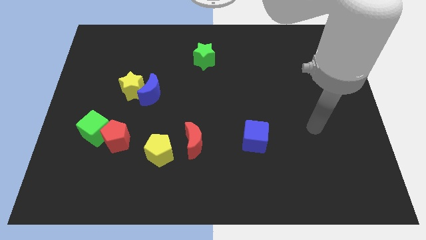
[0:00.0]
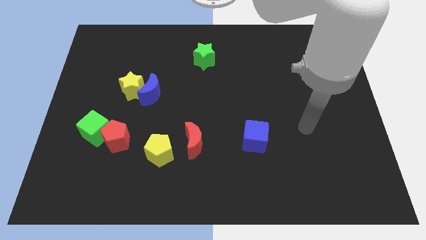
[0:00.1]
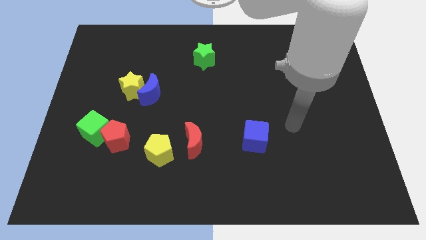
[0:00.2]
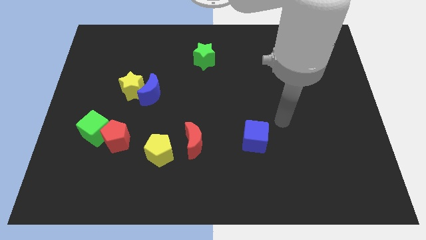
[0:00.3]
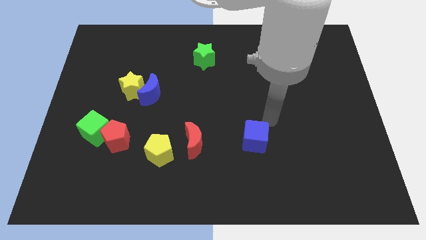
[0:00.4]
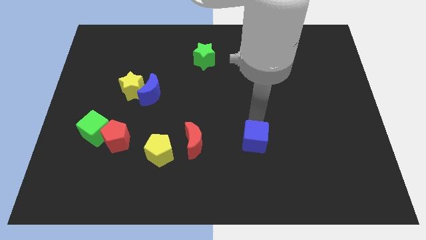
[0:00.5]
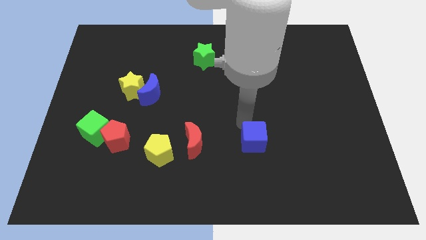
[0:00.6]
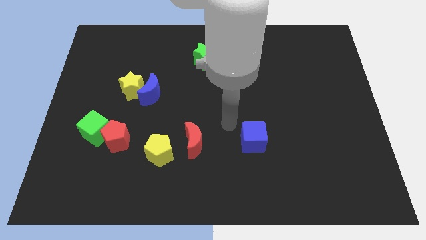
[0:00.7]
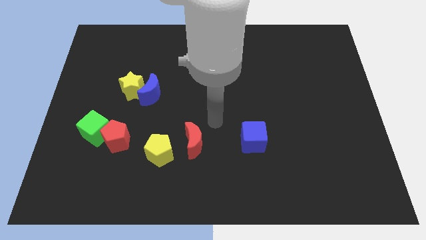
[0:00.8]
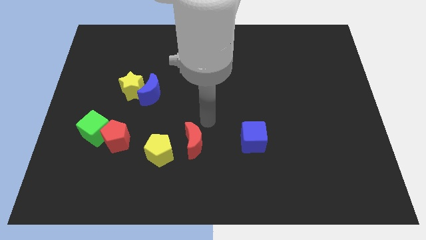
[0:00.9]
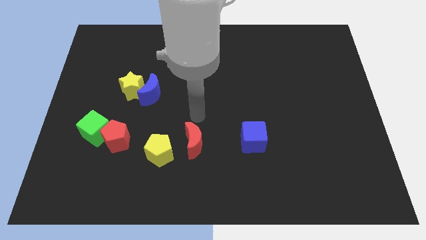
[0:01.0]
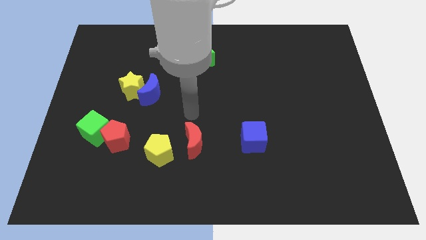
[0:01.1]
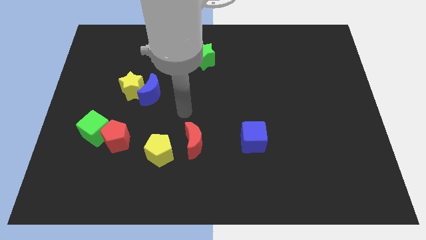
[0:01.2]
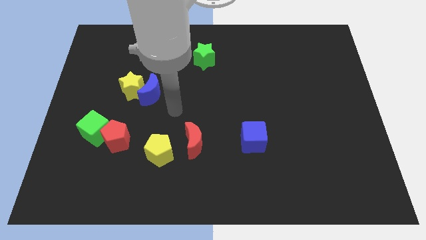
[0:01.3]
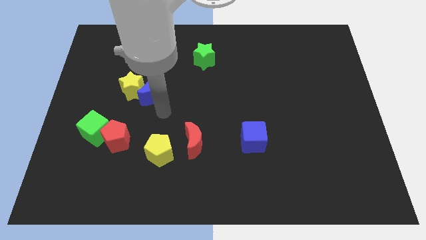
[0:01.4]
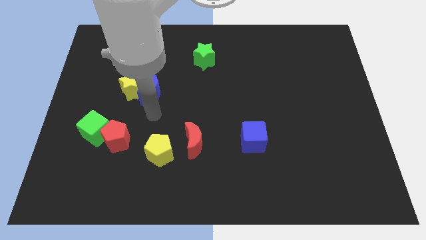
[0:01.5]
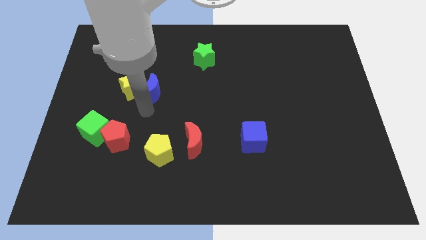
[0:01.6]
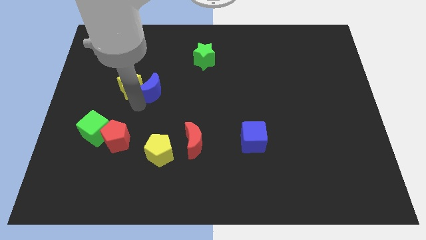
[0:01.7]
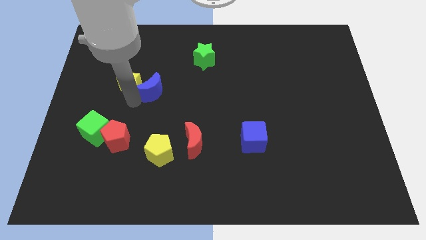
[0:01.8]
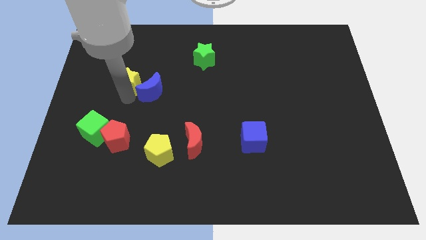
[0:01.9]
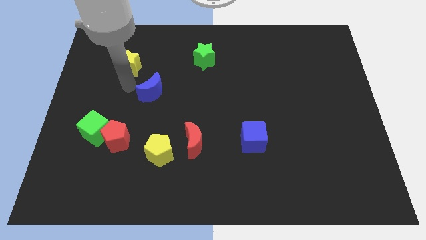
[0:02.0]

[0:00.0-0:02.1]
pull the blue moon apart from the yellow star

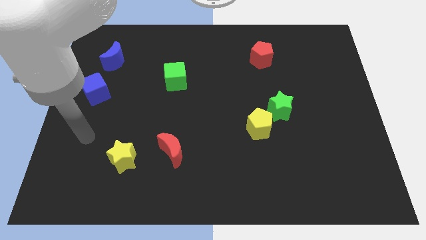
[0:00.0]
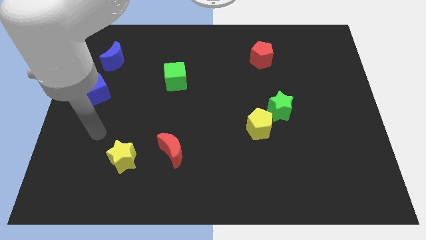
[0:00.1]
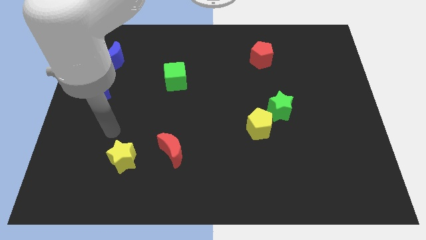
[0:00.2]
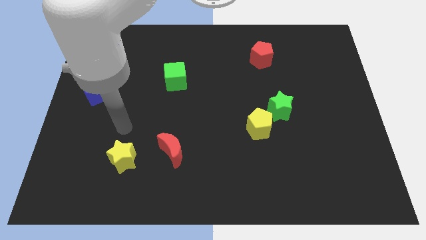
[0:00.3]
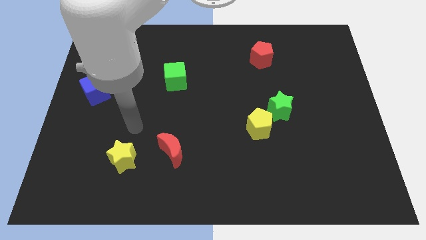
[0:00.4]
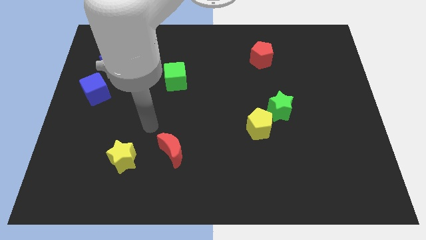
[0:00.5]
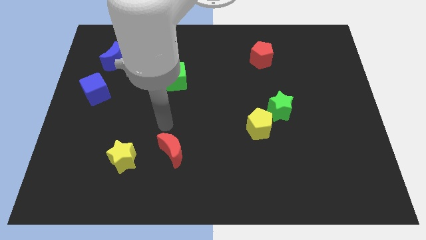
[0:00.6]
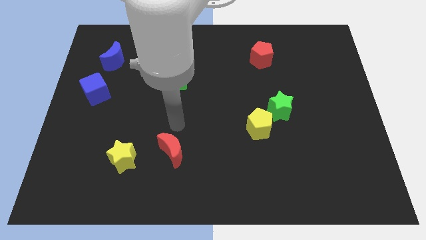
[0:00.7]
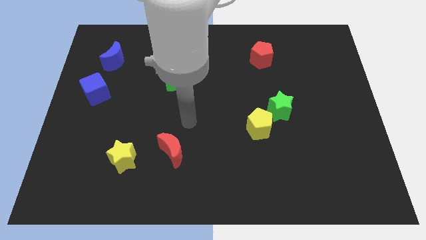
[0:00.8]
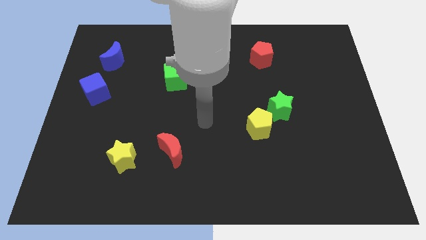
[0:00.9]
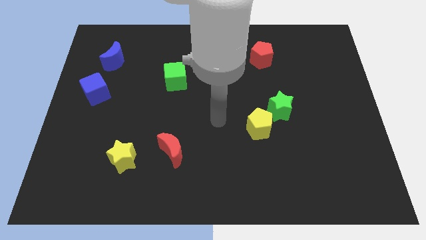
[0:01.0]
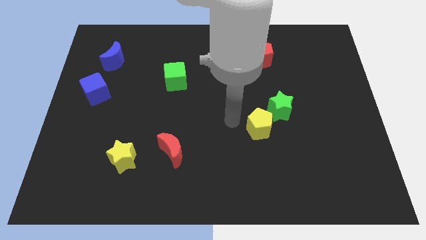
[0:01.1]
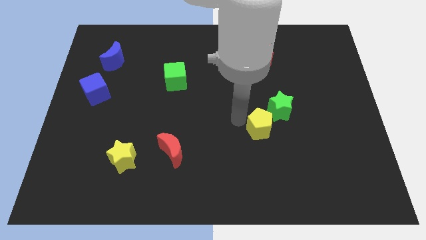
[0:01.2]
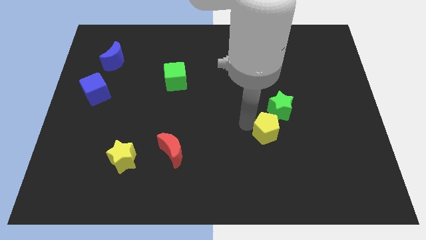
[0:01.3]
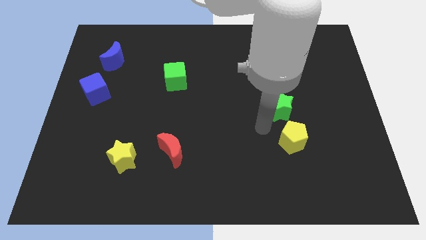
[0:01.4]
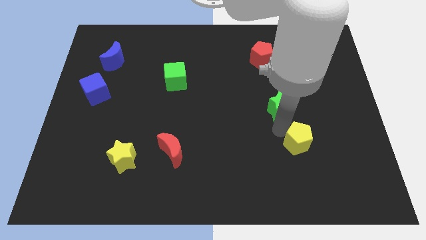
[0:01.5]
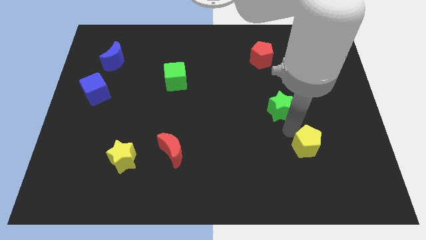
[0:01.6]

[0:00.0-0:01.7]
separate the green star from the yellow pentagon

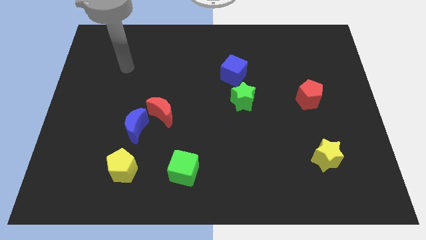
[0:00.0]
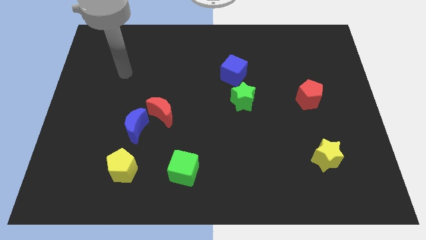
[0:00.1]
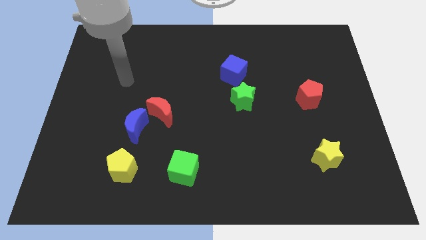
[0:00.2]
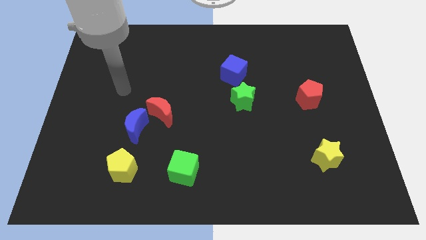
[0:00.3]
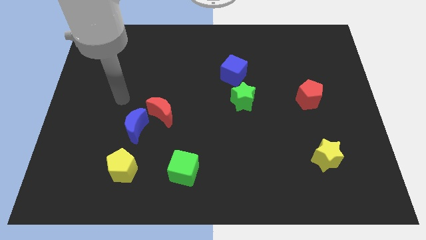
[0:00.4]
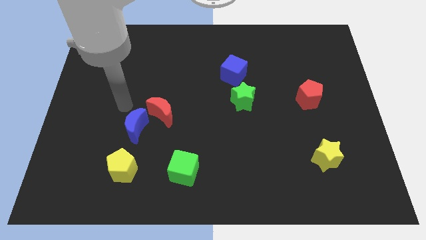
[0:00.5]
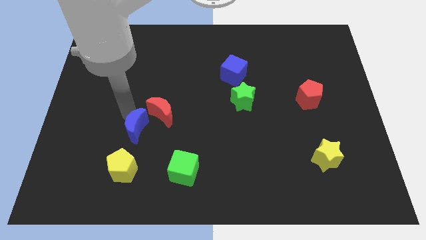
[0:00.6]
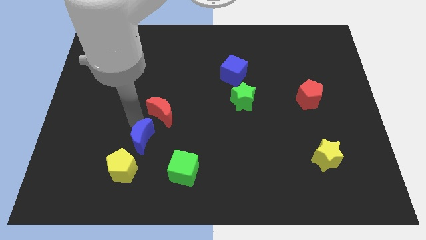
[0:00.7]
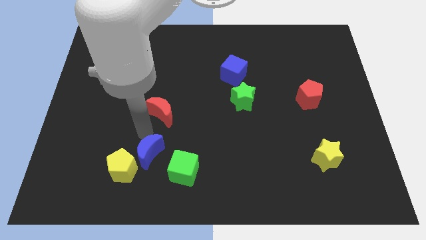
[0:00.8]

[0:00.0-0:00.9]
move the red moon away from the blue moon

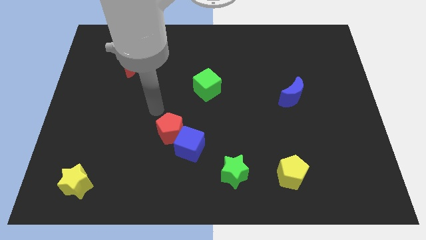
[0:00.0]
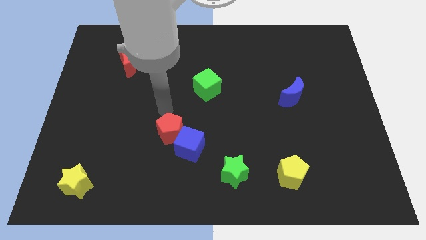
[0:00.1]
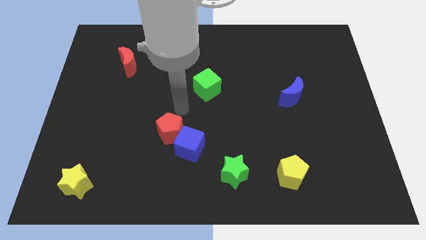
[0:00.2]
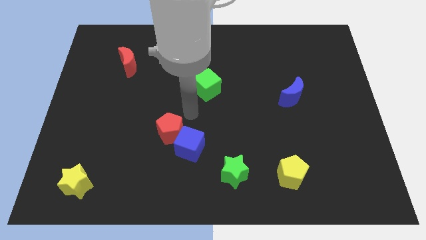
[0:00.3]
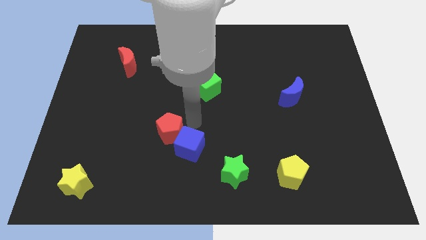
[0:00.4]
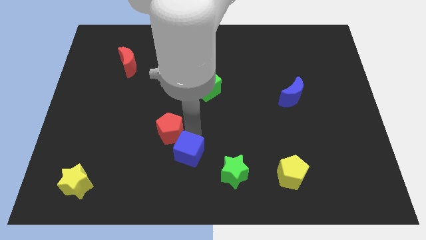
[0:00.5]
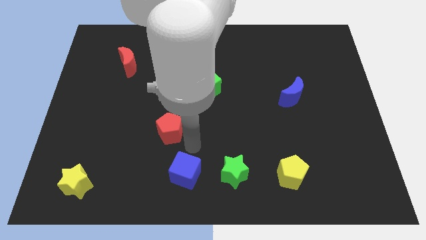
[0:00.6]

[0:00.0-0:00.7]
pull the red pentagon apart from the blue cube

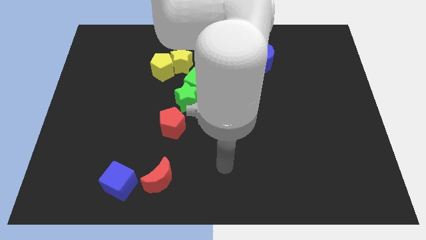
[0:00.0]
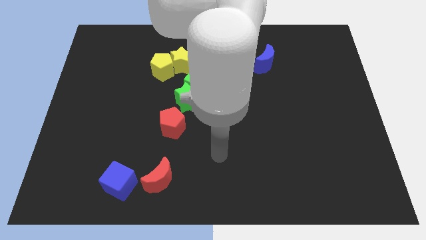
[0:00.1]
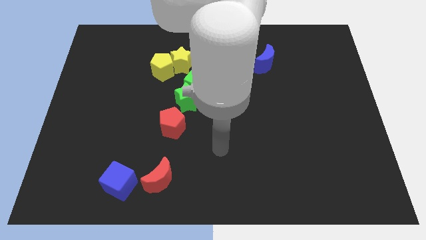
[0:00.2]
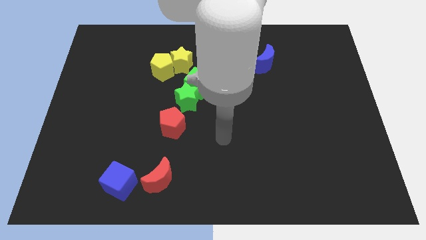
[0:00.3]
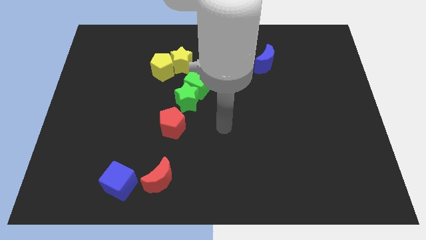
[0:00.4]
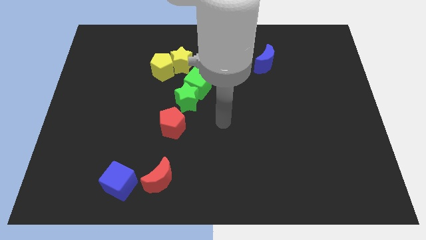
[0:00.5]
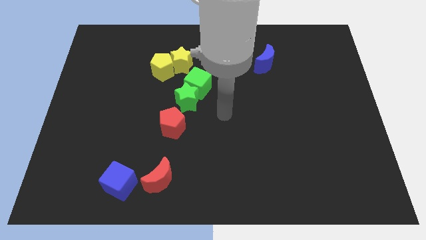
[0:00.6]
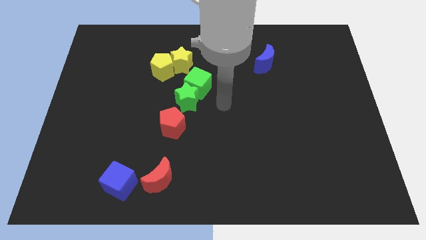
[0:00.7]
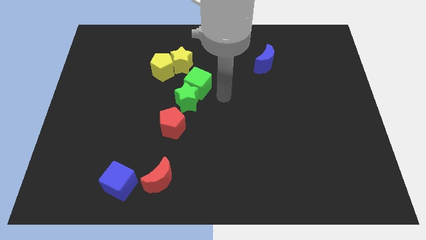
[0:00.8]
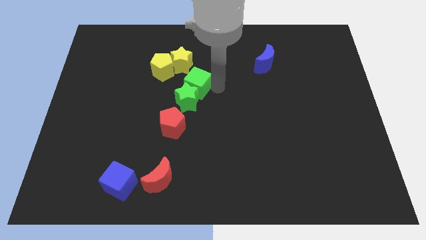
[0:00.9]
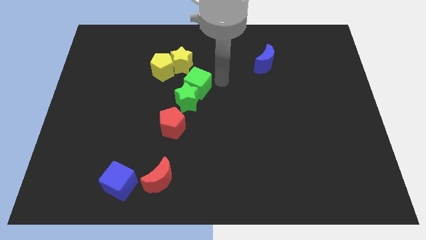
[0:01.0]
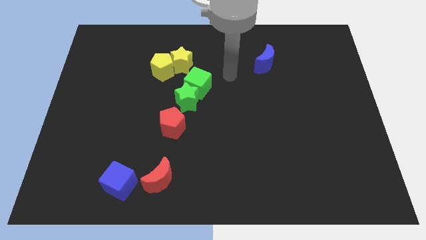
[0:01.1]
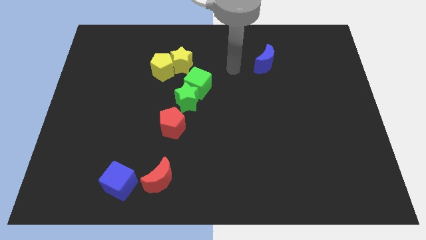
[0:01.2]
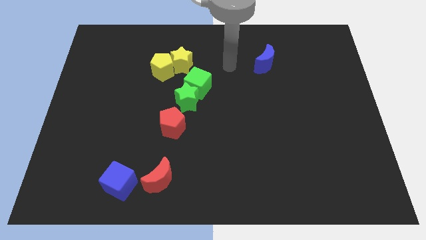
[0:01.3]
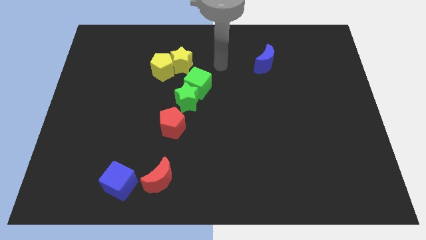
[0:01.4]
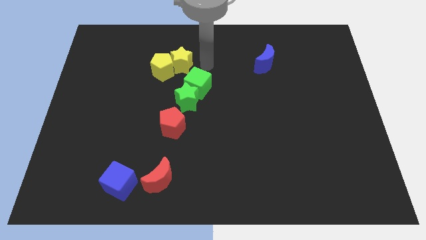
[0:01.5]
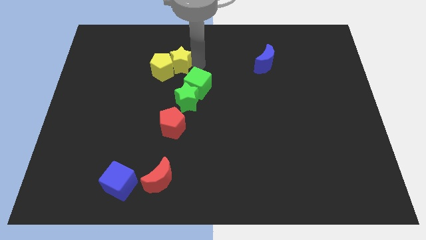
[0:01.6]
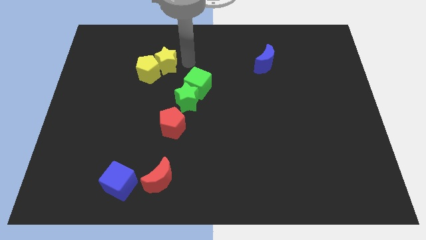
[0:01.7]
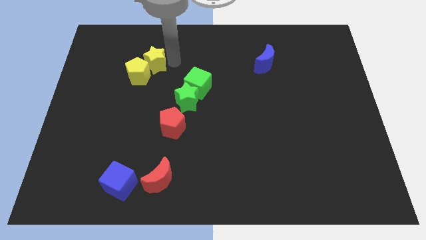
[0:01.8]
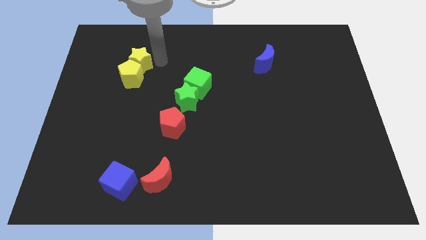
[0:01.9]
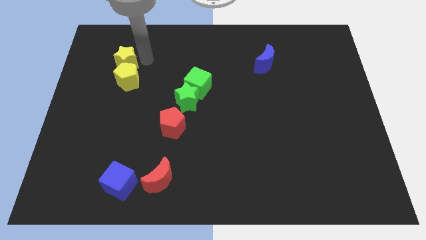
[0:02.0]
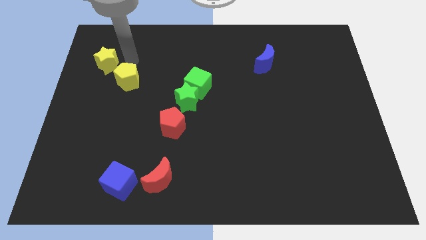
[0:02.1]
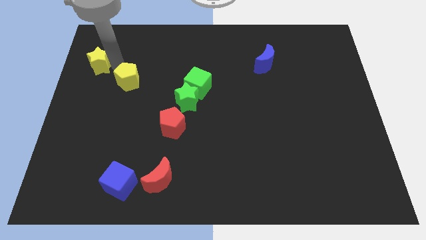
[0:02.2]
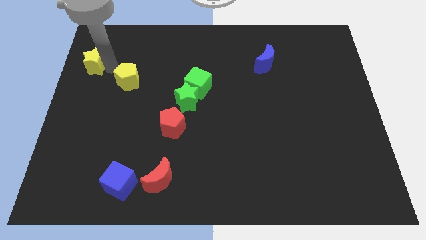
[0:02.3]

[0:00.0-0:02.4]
pull the yellow pentagon apart from the yellow star

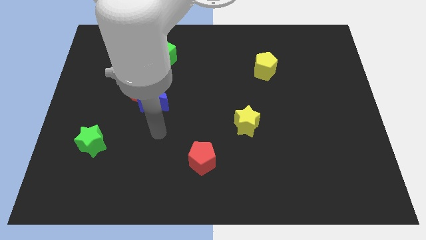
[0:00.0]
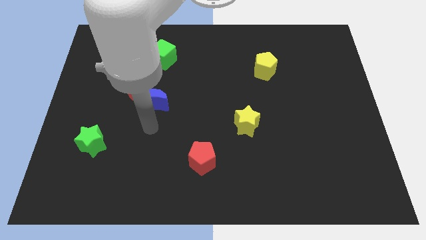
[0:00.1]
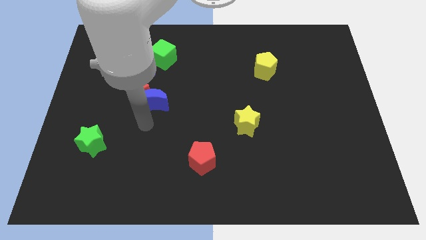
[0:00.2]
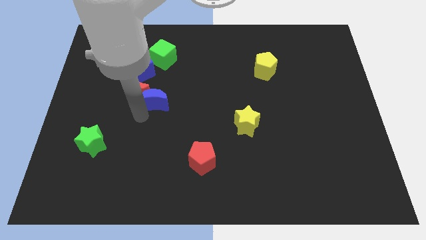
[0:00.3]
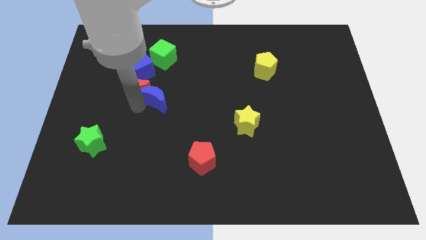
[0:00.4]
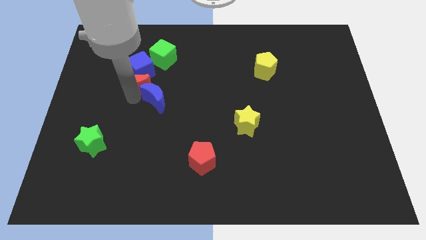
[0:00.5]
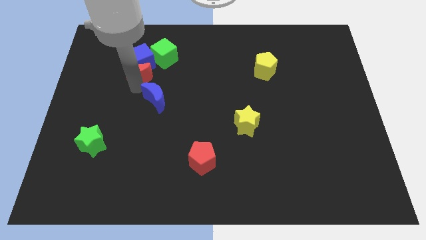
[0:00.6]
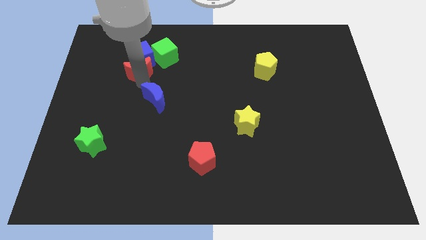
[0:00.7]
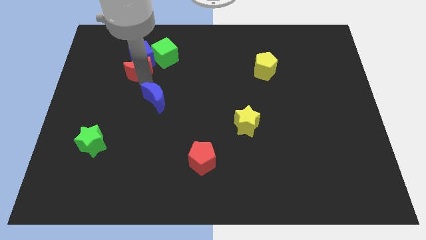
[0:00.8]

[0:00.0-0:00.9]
pull the blue moon apart from the red moon

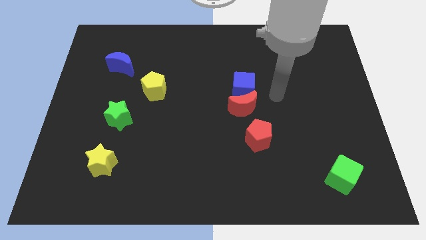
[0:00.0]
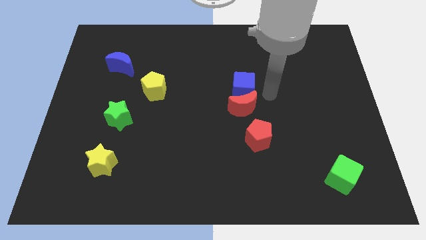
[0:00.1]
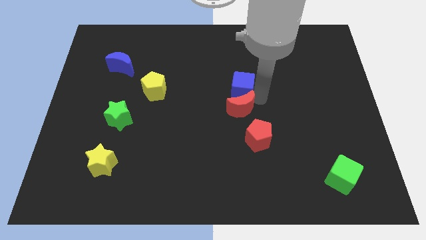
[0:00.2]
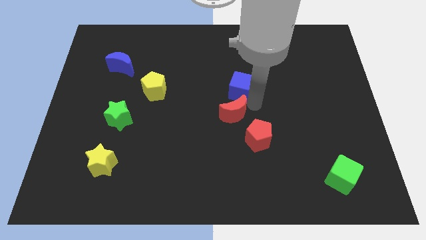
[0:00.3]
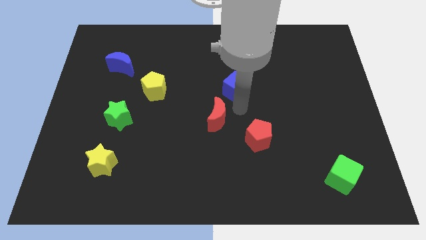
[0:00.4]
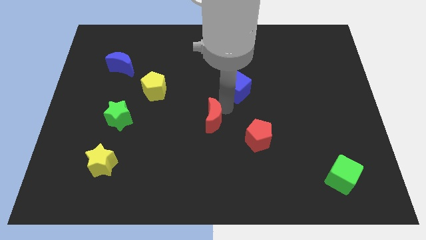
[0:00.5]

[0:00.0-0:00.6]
separate the blue cube from the red moon

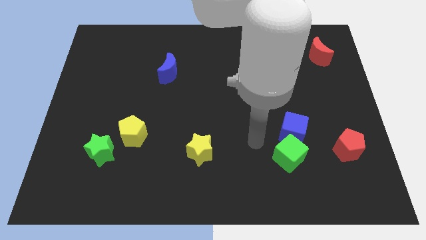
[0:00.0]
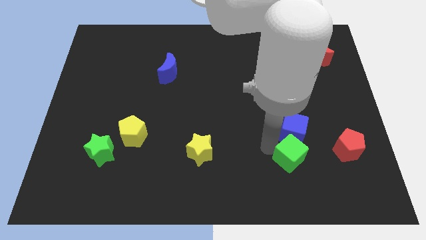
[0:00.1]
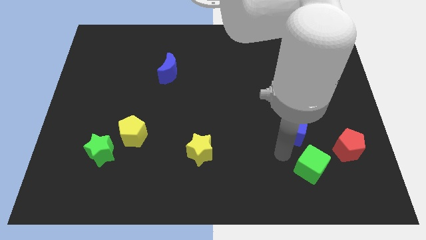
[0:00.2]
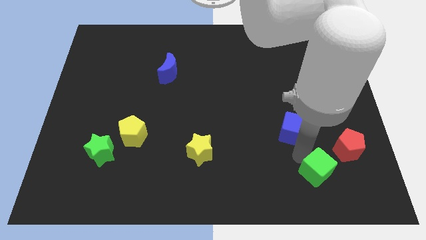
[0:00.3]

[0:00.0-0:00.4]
move the blue cube away from the green cube
